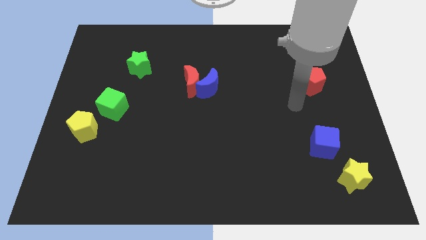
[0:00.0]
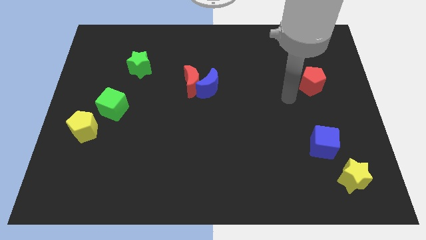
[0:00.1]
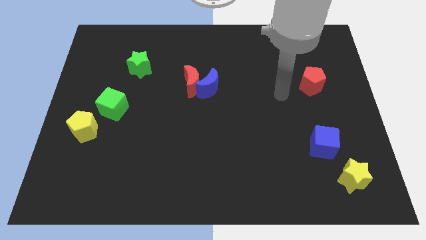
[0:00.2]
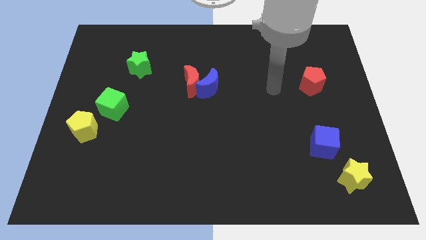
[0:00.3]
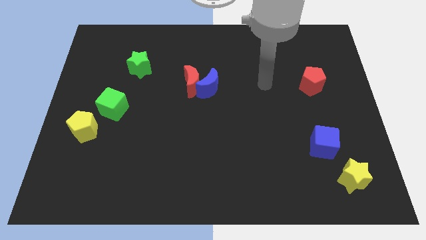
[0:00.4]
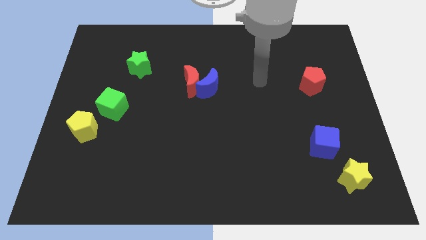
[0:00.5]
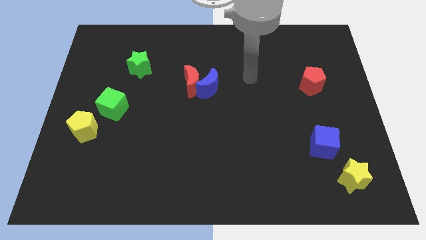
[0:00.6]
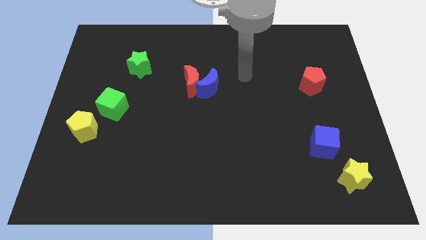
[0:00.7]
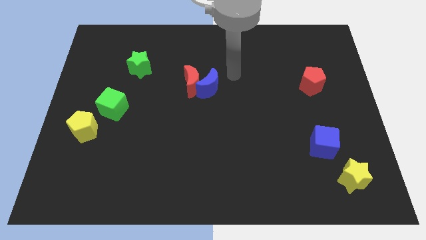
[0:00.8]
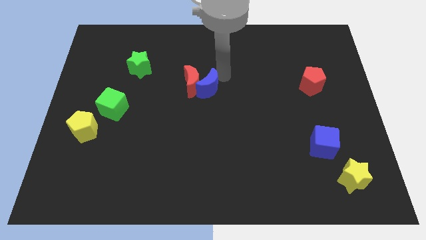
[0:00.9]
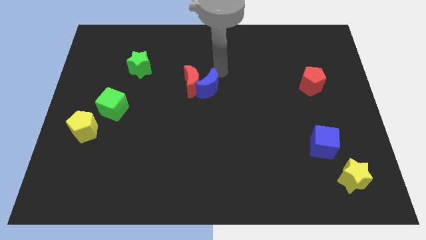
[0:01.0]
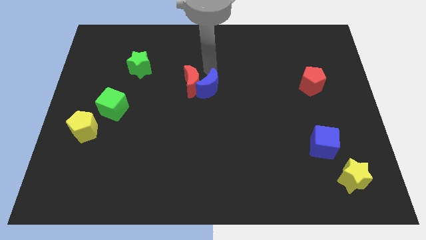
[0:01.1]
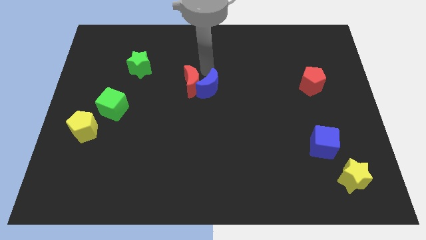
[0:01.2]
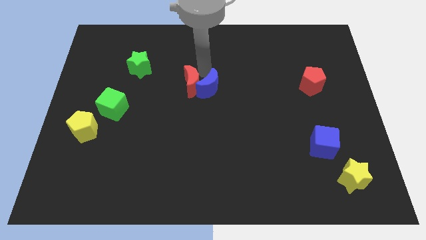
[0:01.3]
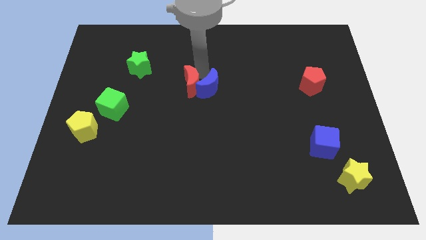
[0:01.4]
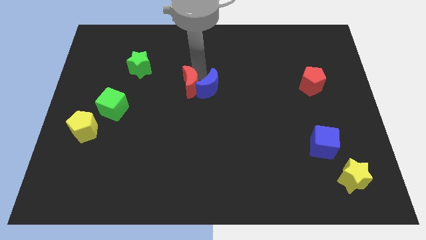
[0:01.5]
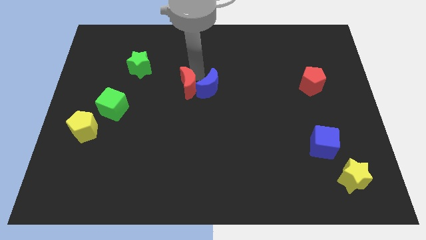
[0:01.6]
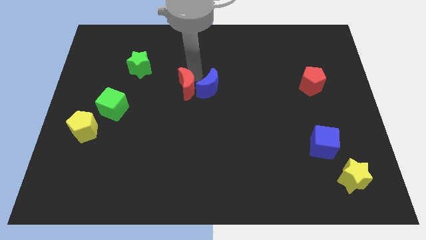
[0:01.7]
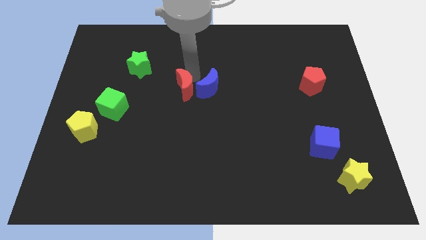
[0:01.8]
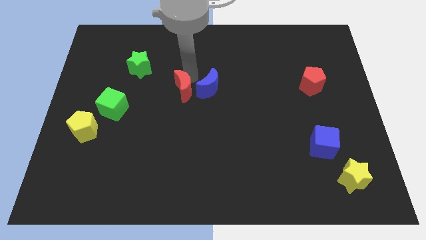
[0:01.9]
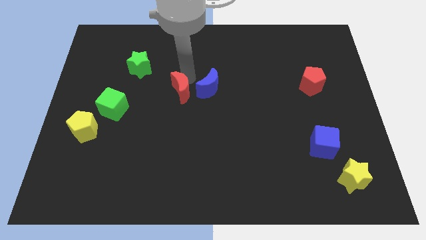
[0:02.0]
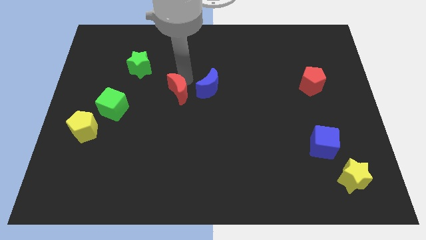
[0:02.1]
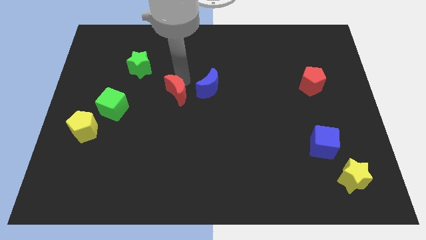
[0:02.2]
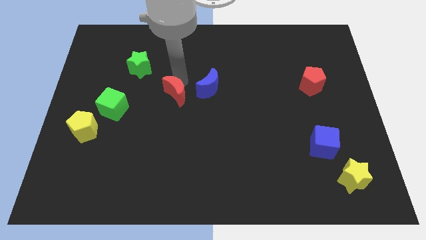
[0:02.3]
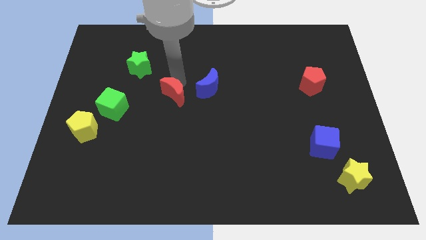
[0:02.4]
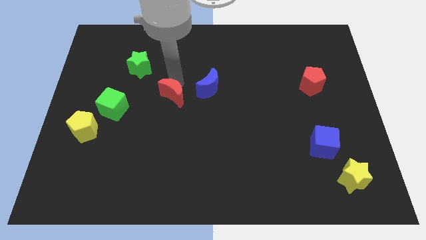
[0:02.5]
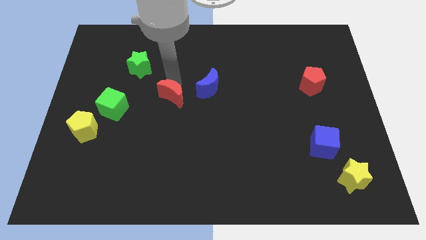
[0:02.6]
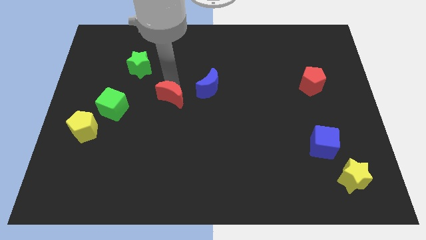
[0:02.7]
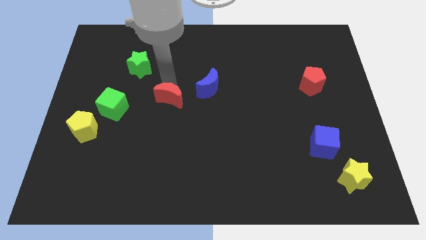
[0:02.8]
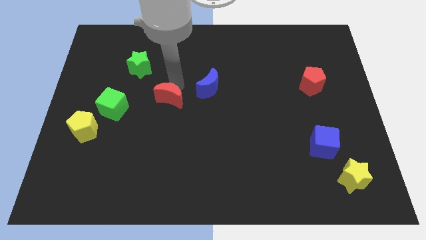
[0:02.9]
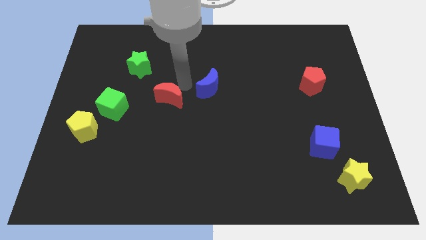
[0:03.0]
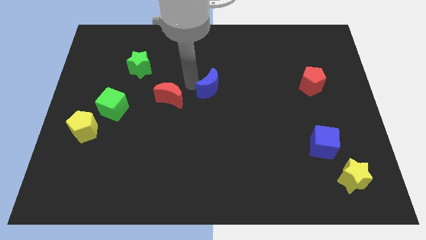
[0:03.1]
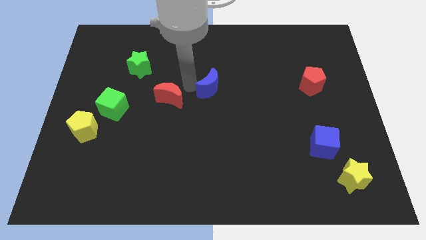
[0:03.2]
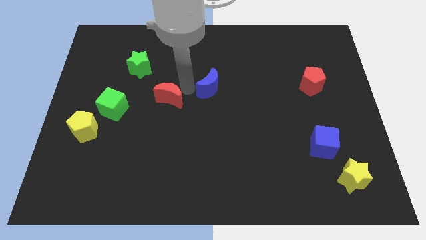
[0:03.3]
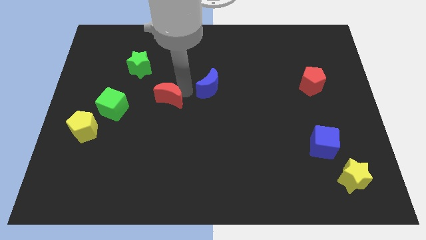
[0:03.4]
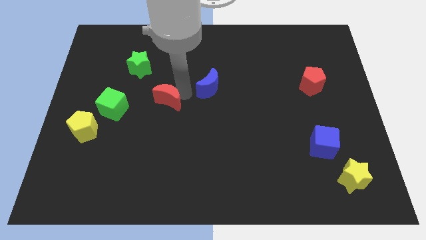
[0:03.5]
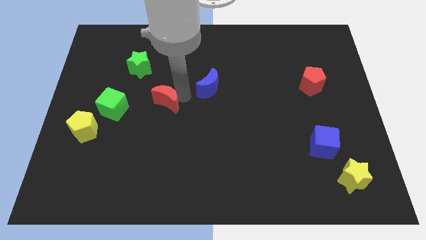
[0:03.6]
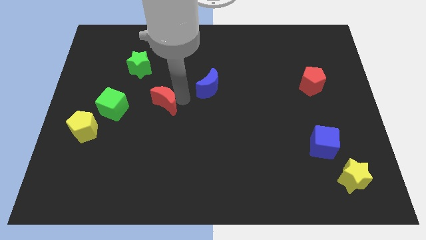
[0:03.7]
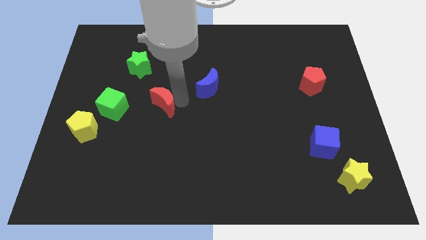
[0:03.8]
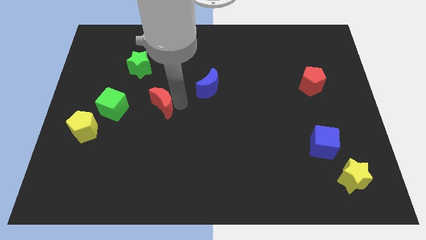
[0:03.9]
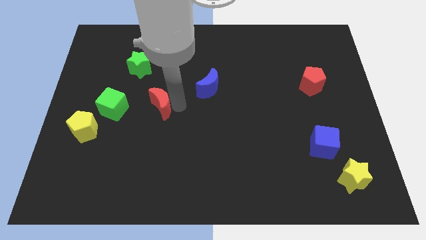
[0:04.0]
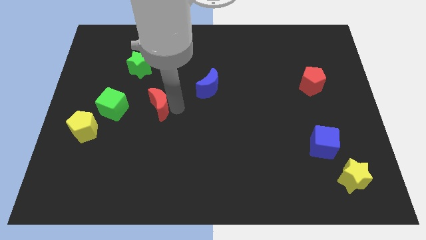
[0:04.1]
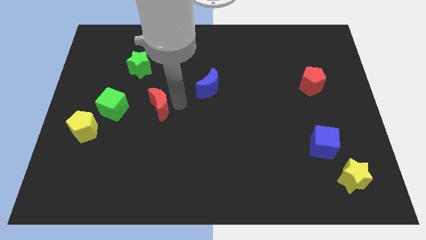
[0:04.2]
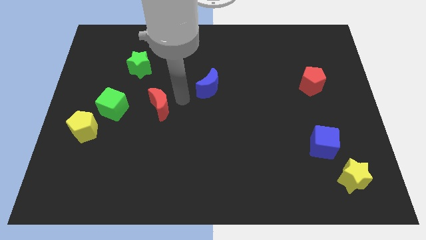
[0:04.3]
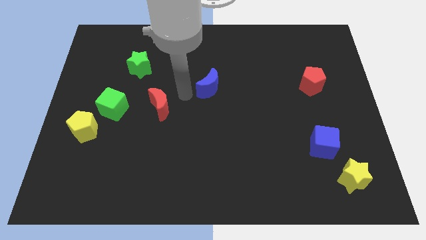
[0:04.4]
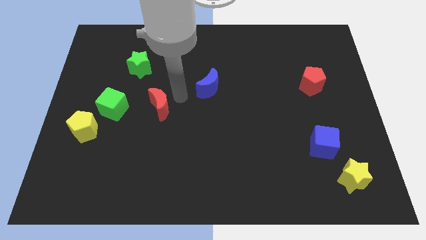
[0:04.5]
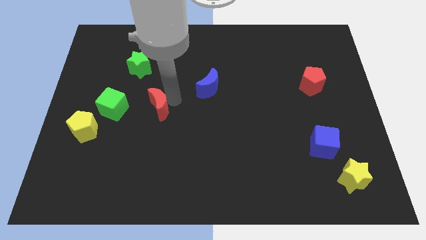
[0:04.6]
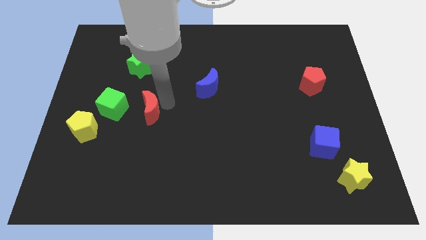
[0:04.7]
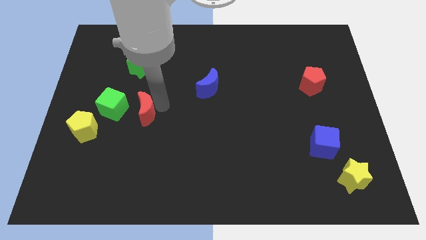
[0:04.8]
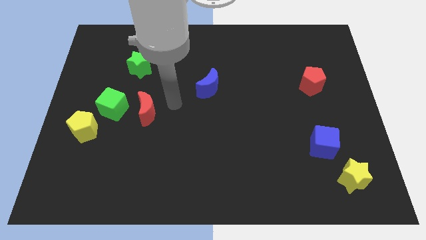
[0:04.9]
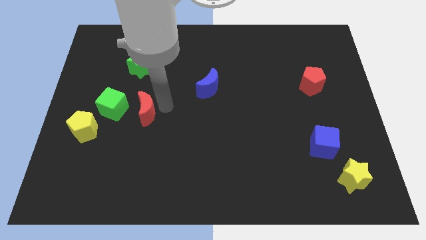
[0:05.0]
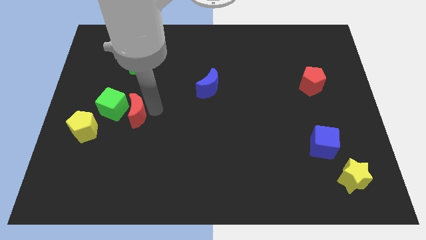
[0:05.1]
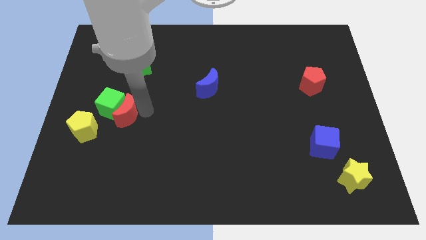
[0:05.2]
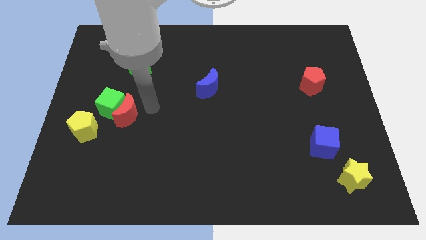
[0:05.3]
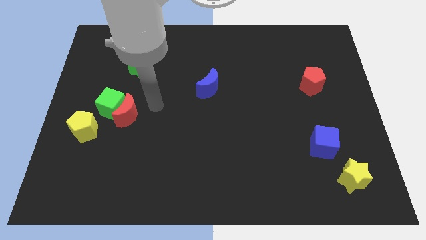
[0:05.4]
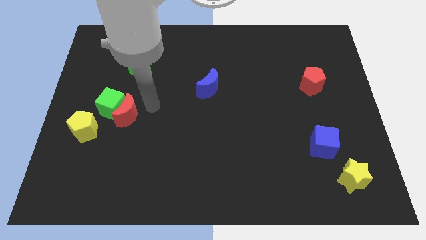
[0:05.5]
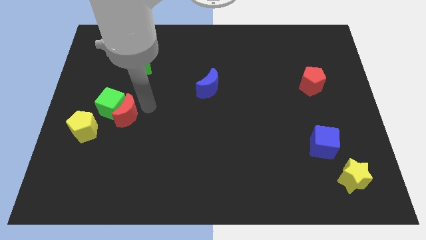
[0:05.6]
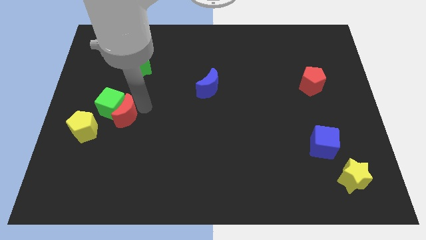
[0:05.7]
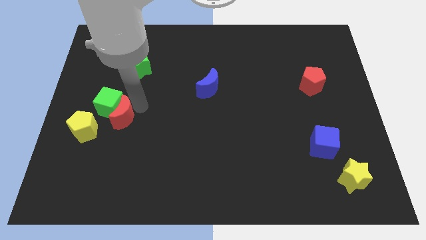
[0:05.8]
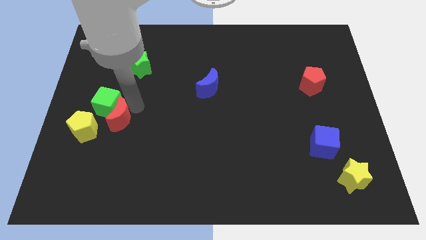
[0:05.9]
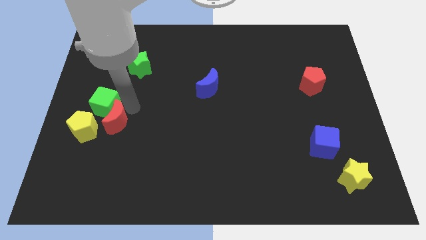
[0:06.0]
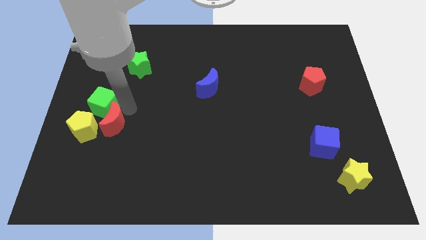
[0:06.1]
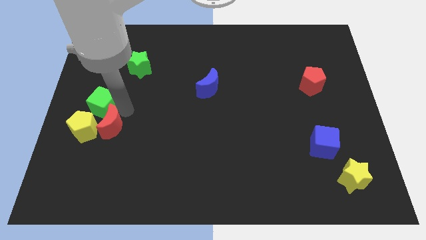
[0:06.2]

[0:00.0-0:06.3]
slide the red moon towards the yellow pentagon
